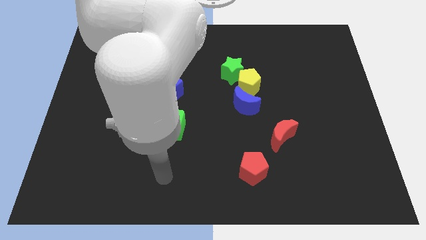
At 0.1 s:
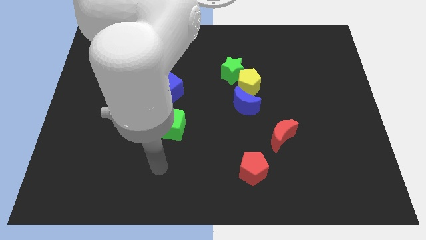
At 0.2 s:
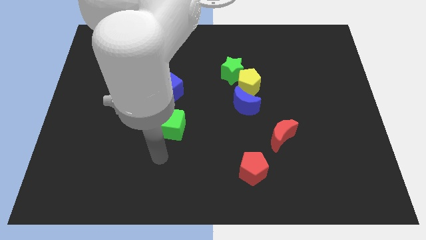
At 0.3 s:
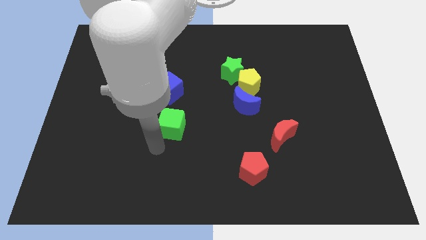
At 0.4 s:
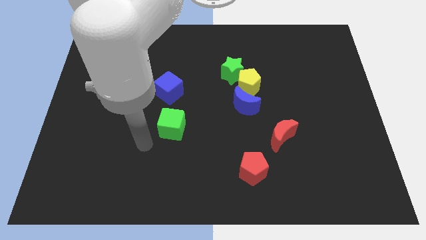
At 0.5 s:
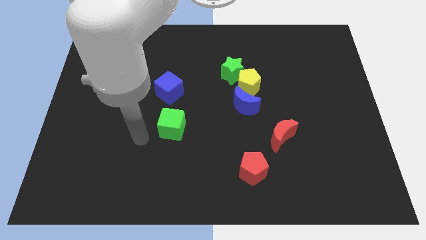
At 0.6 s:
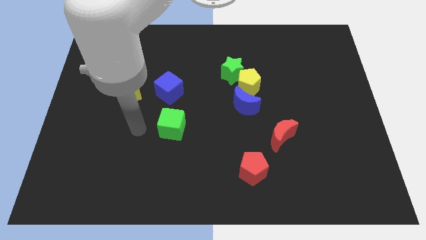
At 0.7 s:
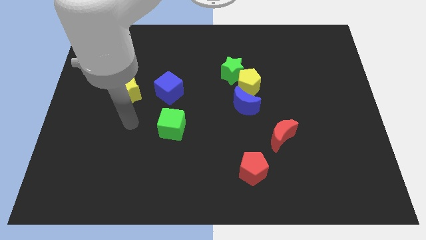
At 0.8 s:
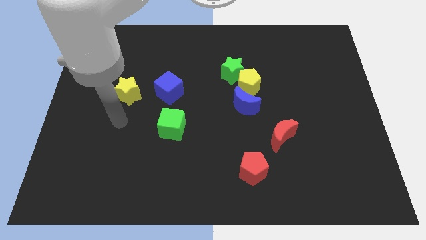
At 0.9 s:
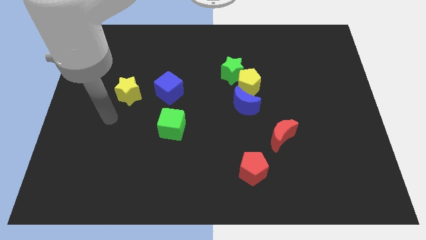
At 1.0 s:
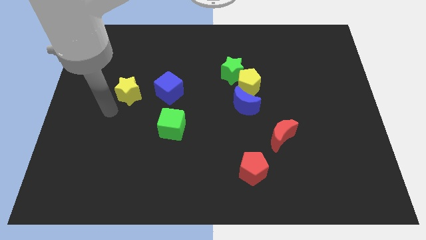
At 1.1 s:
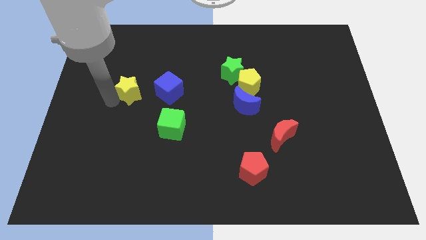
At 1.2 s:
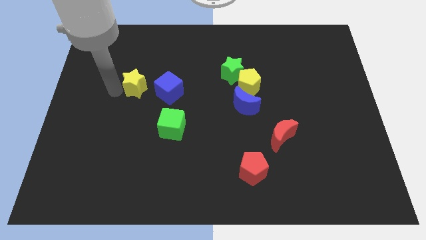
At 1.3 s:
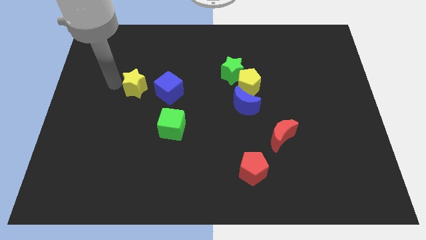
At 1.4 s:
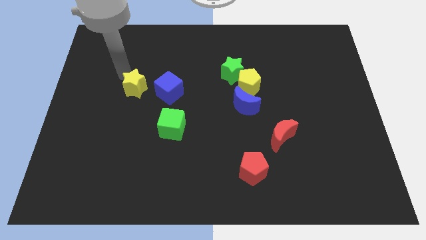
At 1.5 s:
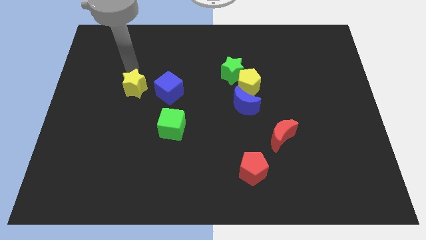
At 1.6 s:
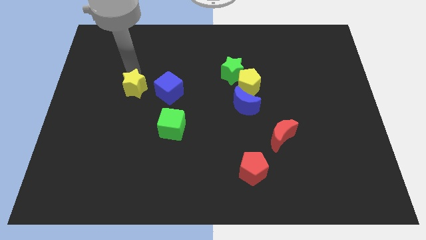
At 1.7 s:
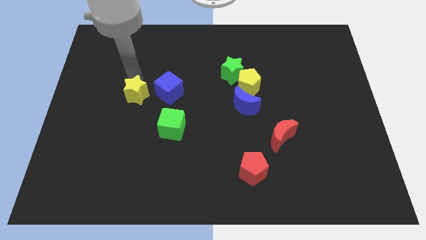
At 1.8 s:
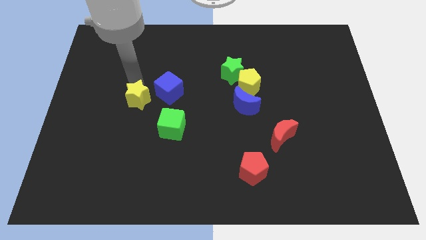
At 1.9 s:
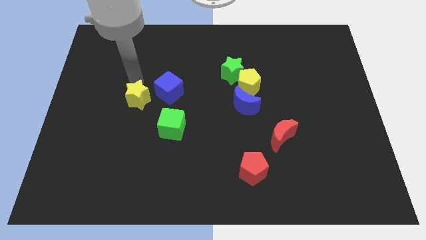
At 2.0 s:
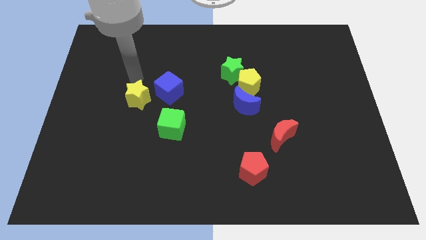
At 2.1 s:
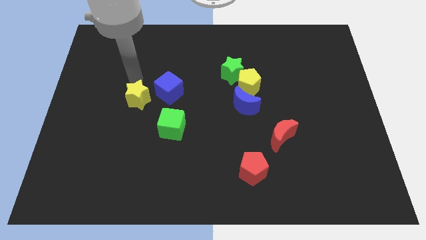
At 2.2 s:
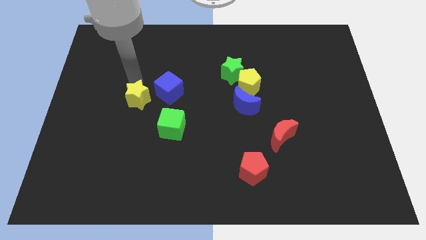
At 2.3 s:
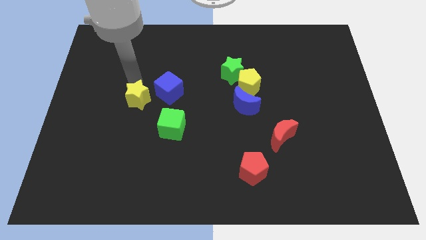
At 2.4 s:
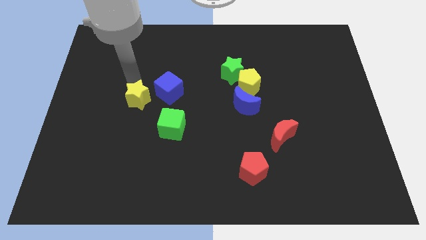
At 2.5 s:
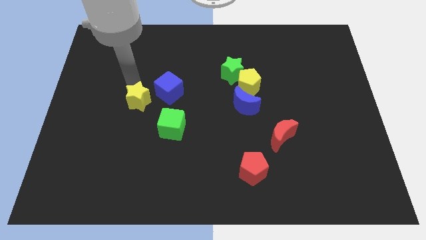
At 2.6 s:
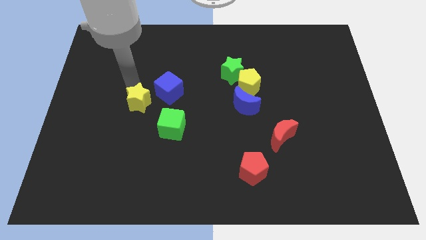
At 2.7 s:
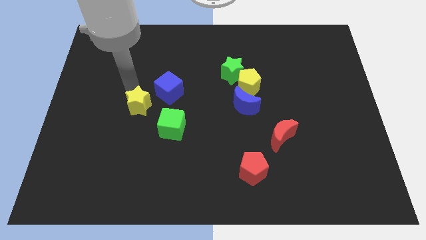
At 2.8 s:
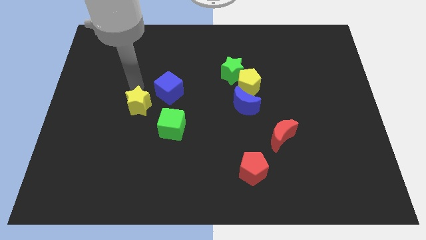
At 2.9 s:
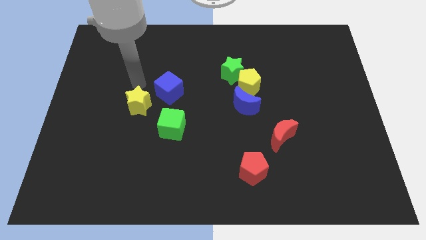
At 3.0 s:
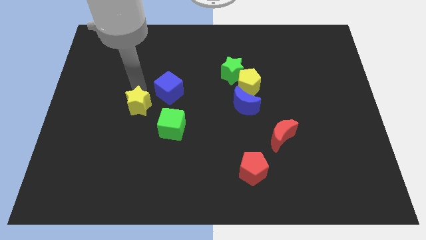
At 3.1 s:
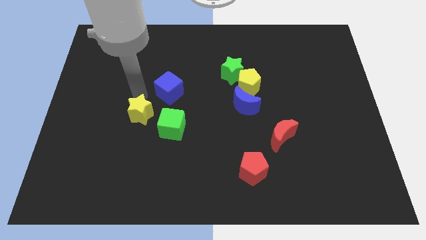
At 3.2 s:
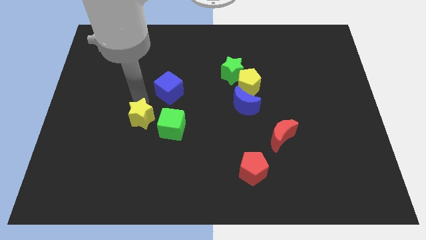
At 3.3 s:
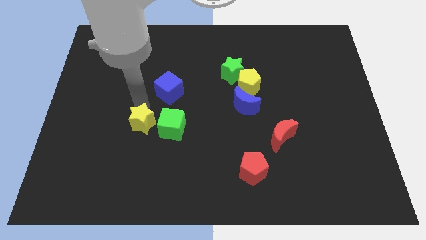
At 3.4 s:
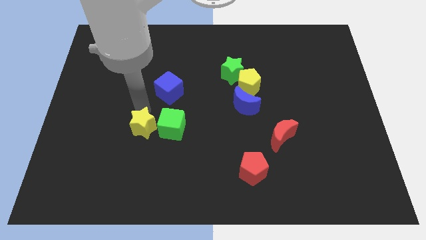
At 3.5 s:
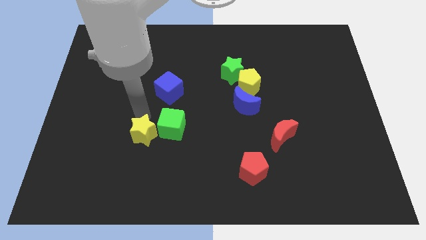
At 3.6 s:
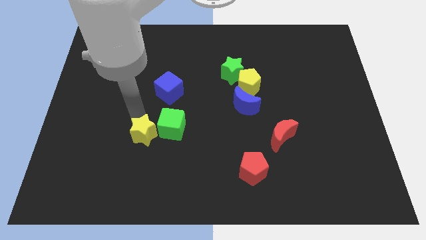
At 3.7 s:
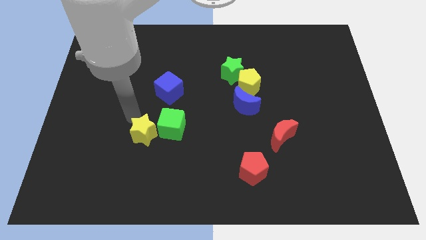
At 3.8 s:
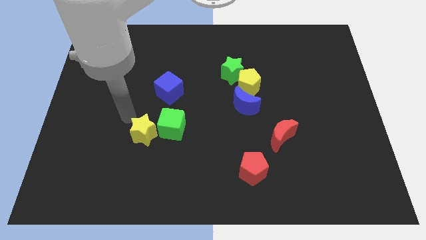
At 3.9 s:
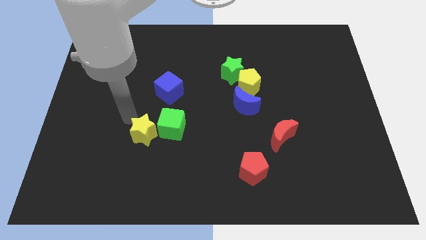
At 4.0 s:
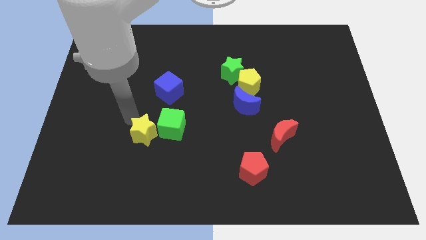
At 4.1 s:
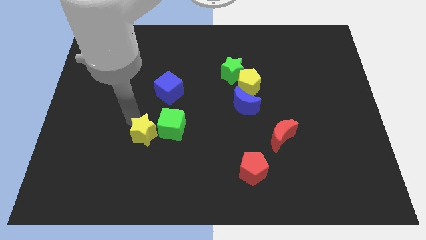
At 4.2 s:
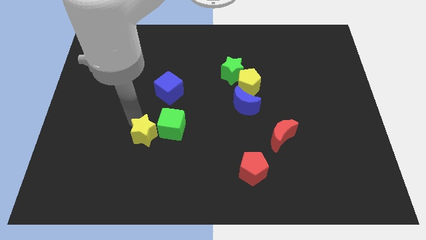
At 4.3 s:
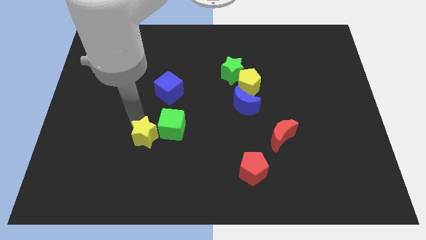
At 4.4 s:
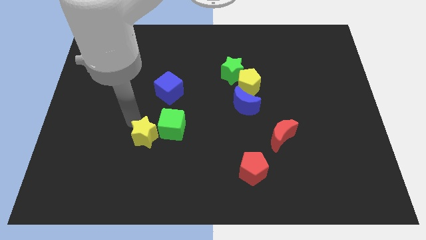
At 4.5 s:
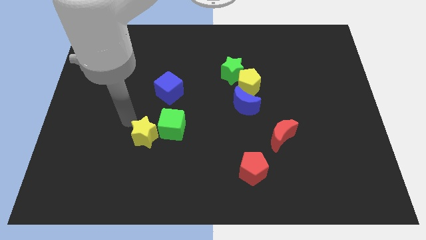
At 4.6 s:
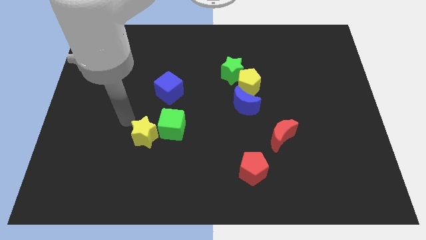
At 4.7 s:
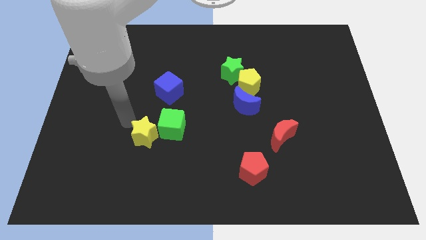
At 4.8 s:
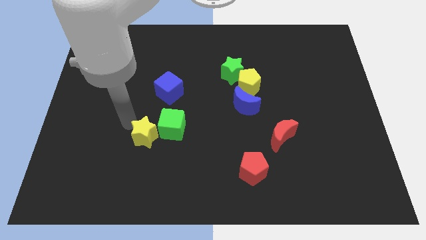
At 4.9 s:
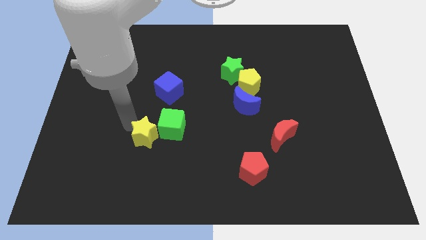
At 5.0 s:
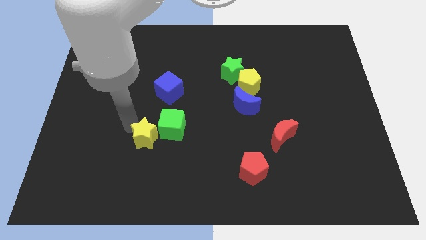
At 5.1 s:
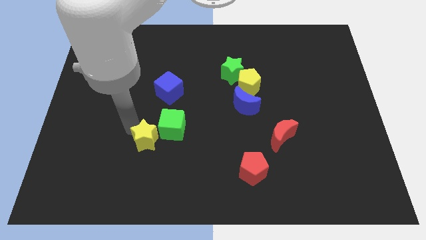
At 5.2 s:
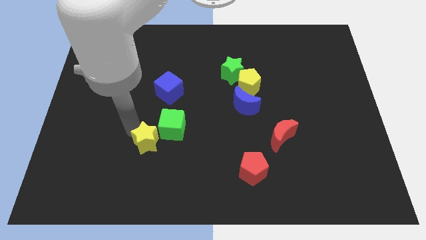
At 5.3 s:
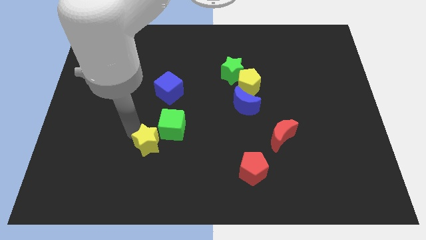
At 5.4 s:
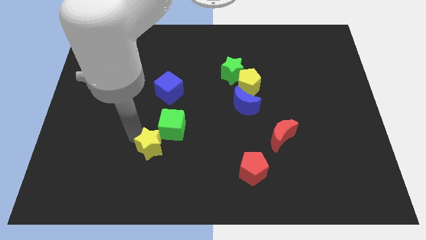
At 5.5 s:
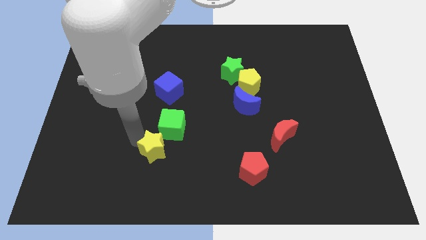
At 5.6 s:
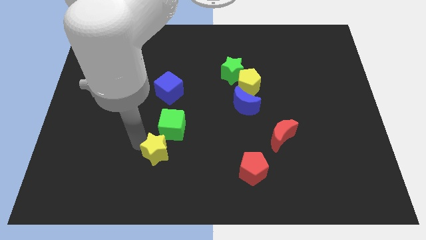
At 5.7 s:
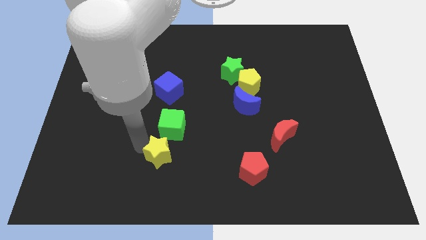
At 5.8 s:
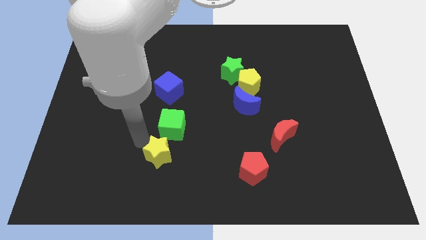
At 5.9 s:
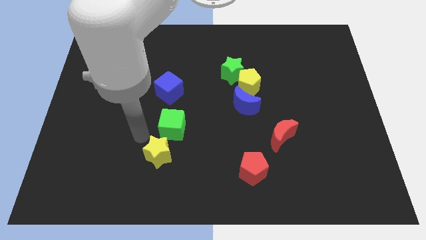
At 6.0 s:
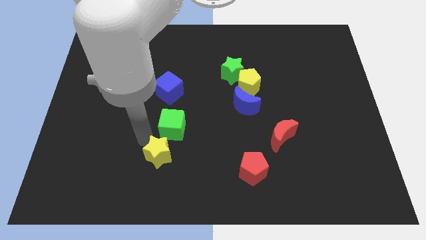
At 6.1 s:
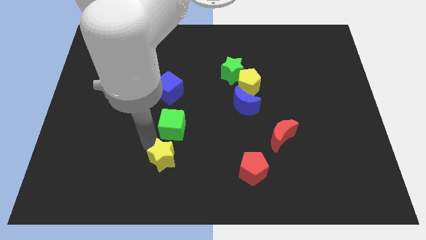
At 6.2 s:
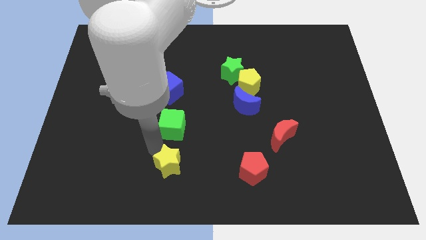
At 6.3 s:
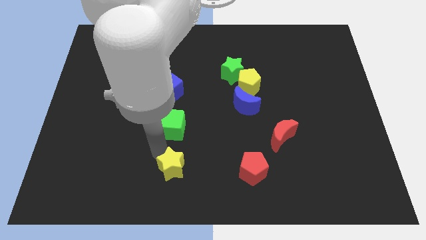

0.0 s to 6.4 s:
move the yellow star to the bottom

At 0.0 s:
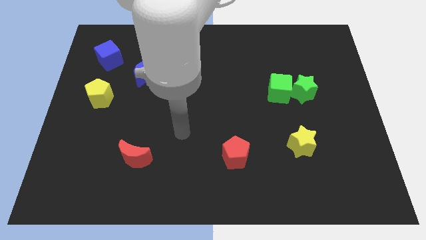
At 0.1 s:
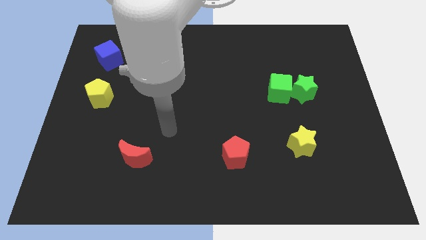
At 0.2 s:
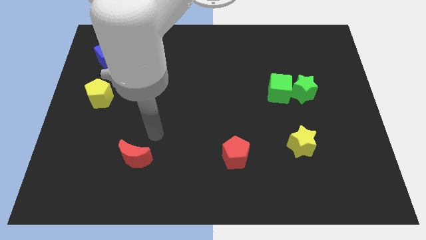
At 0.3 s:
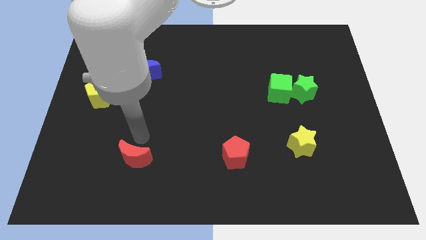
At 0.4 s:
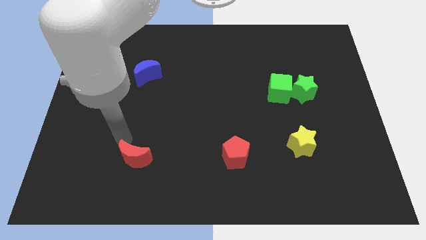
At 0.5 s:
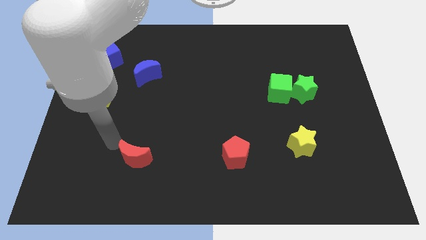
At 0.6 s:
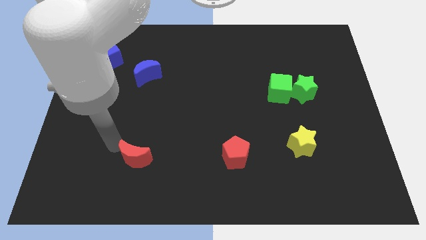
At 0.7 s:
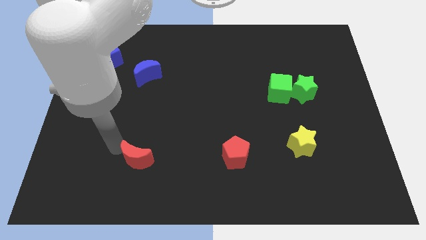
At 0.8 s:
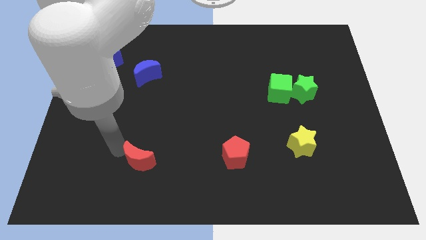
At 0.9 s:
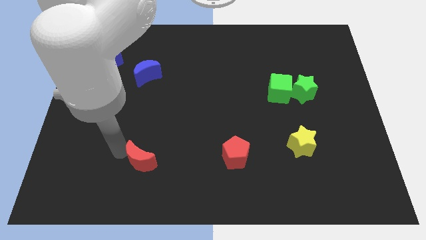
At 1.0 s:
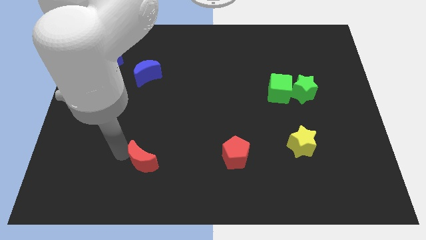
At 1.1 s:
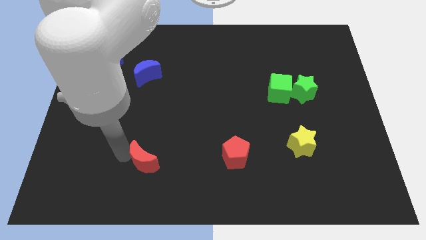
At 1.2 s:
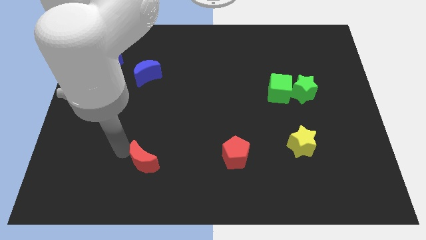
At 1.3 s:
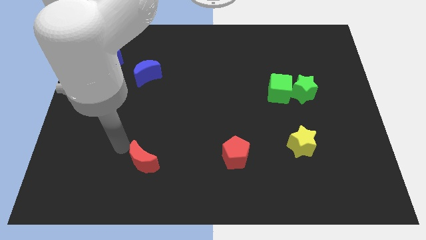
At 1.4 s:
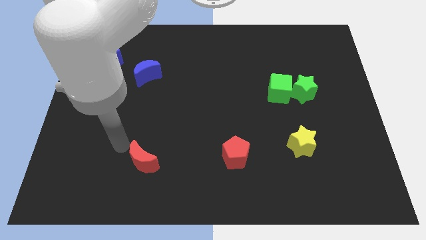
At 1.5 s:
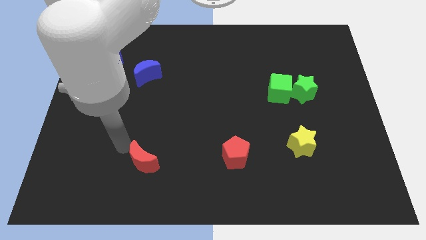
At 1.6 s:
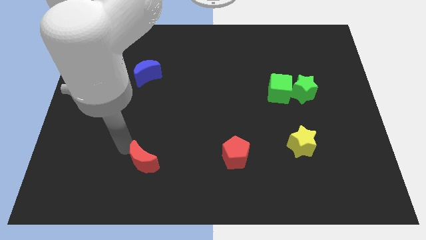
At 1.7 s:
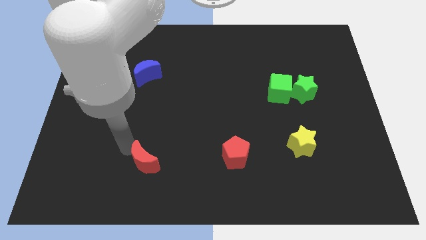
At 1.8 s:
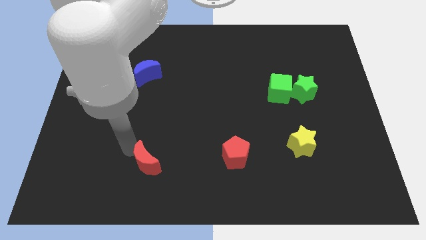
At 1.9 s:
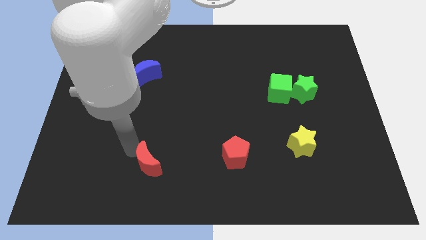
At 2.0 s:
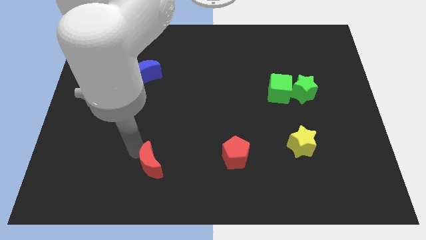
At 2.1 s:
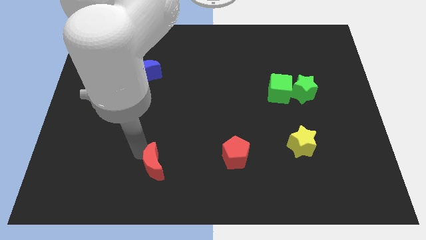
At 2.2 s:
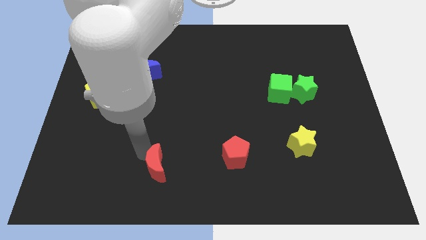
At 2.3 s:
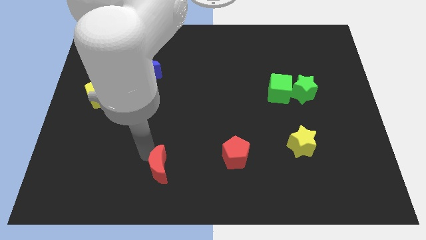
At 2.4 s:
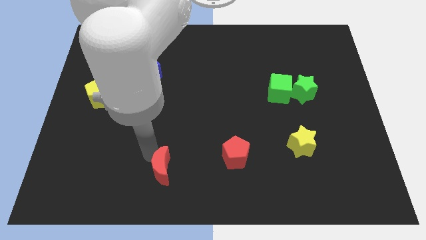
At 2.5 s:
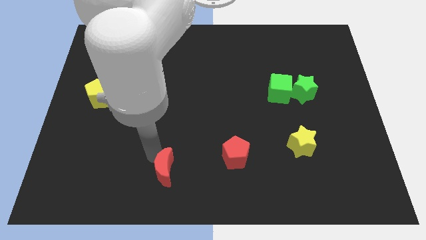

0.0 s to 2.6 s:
slide the red moon to the bottom
